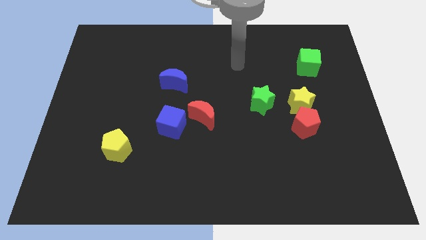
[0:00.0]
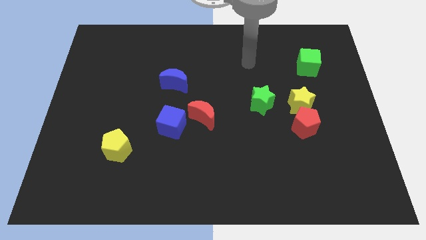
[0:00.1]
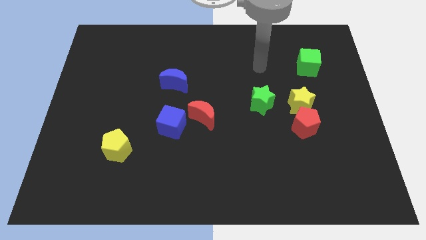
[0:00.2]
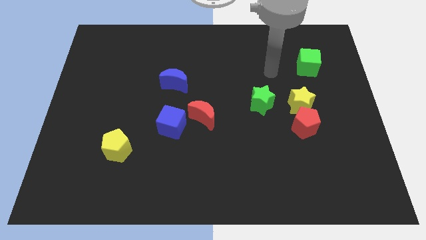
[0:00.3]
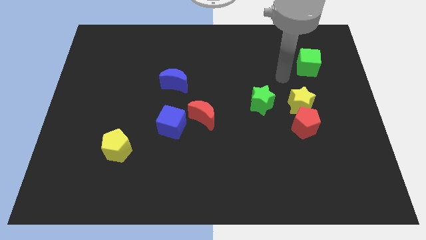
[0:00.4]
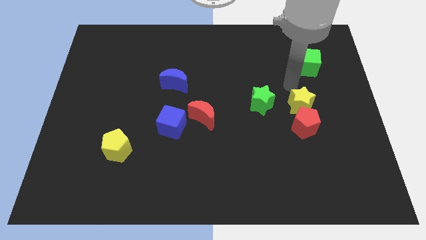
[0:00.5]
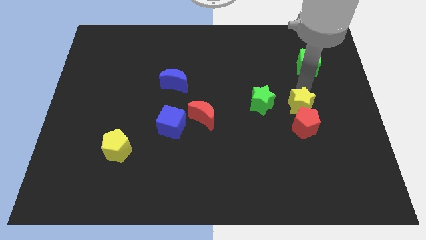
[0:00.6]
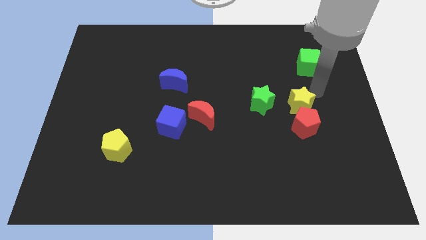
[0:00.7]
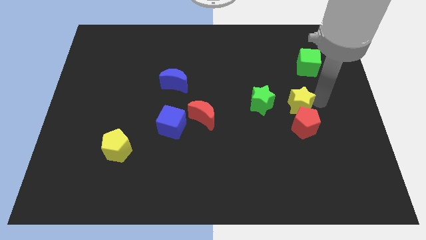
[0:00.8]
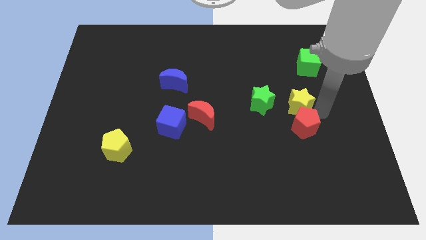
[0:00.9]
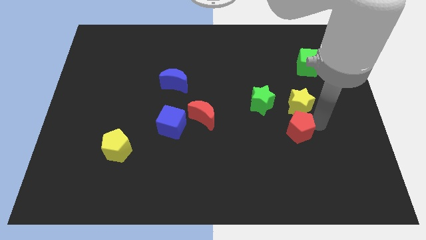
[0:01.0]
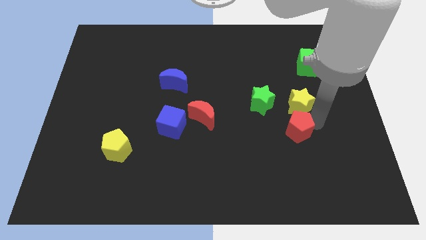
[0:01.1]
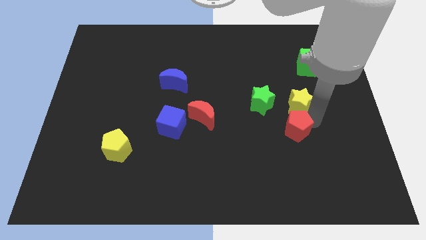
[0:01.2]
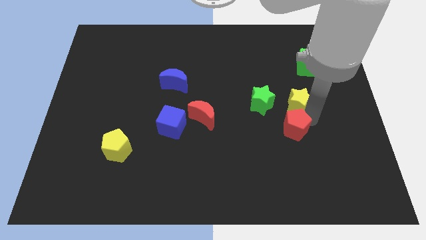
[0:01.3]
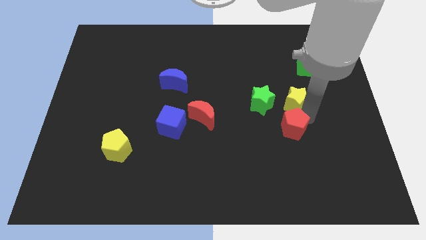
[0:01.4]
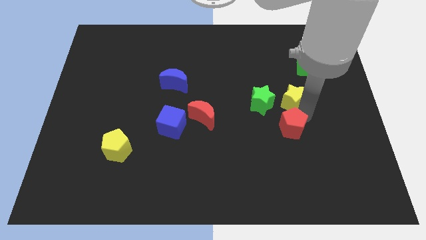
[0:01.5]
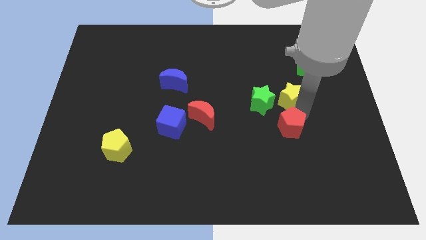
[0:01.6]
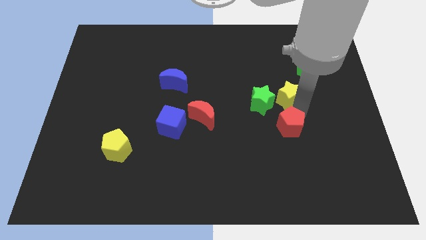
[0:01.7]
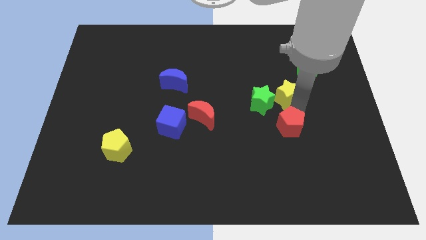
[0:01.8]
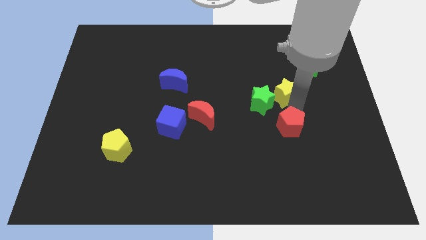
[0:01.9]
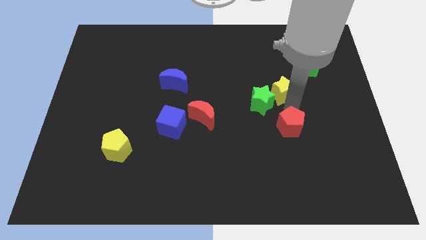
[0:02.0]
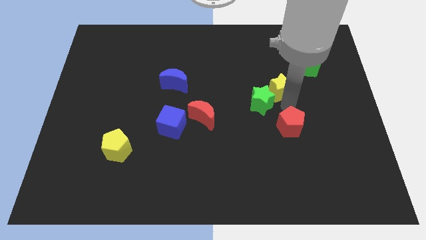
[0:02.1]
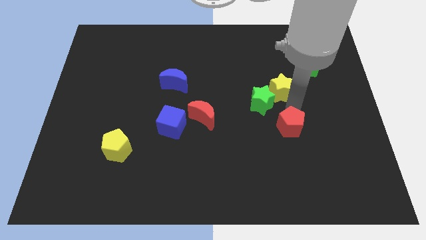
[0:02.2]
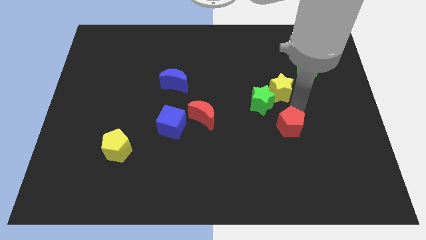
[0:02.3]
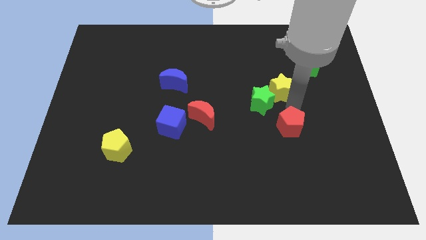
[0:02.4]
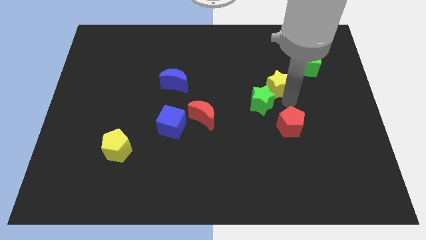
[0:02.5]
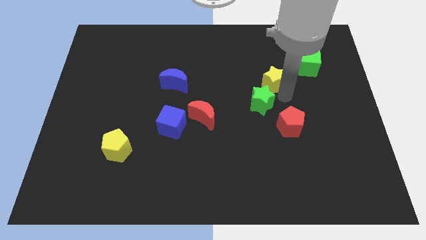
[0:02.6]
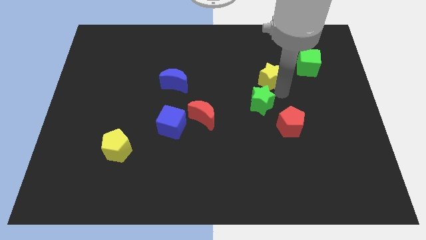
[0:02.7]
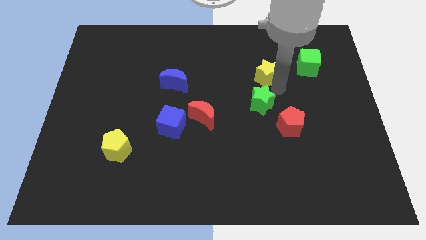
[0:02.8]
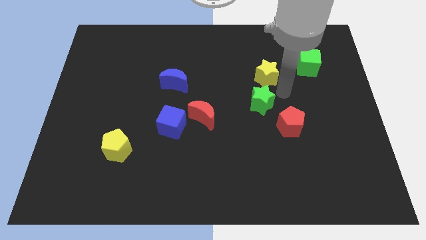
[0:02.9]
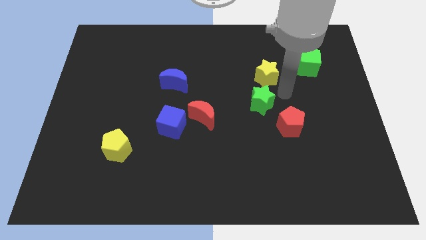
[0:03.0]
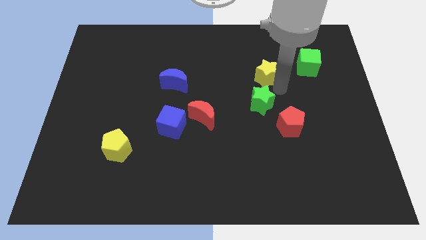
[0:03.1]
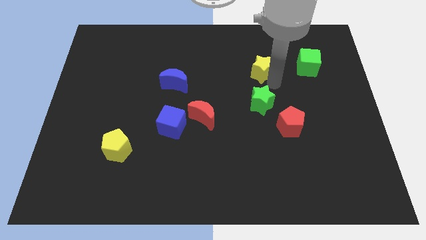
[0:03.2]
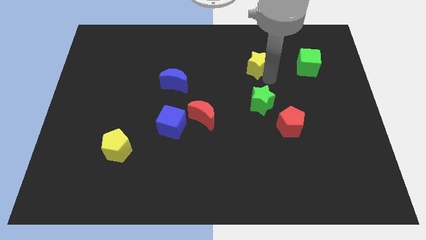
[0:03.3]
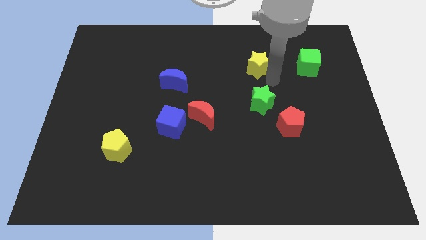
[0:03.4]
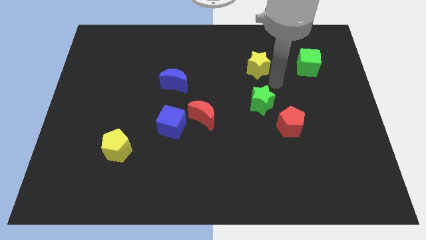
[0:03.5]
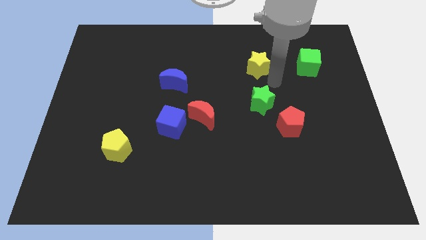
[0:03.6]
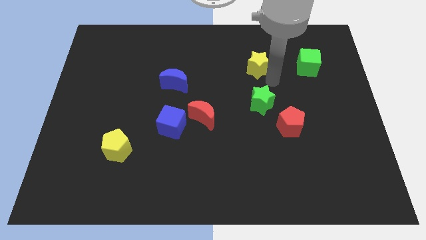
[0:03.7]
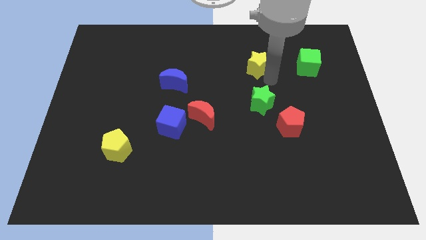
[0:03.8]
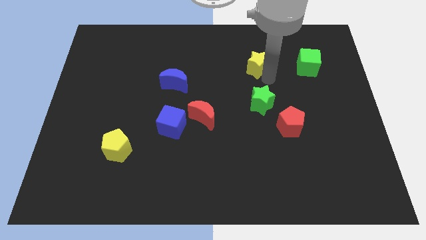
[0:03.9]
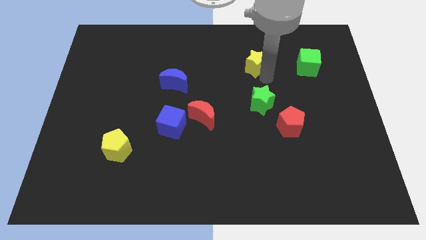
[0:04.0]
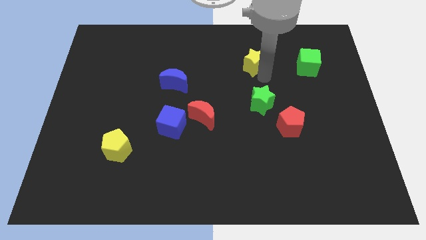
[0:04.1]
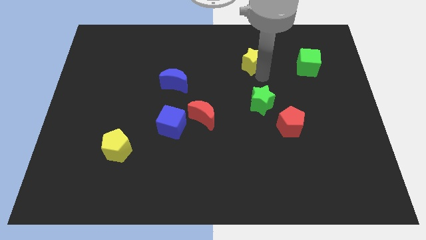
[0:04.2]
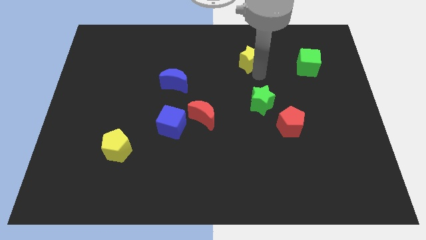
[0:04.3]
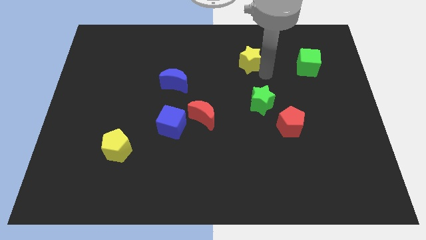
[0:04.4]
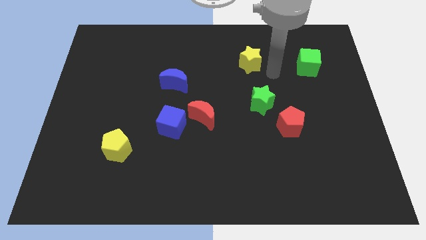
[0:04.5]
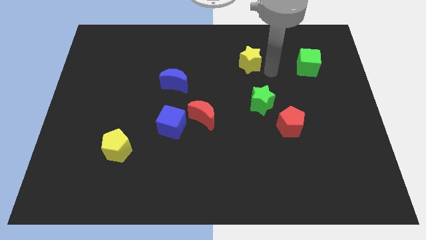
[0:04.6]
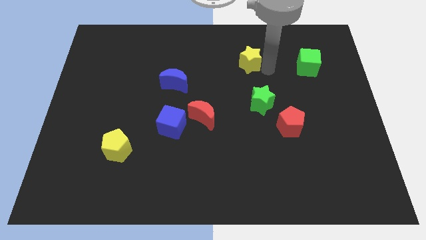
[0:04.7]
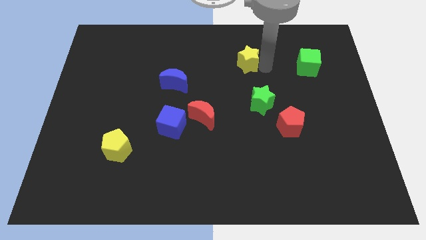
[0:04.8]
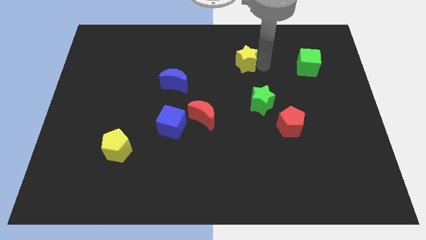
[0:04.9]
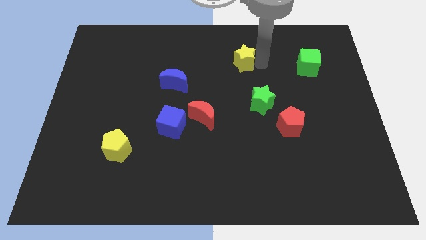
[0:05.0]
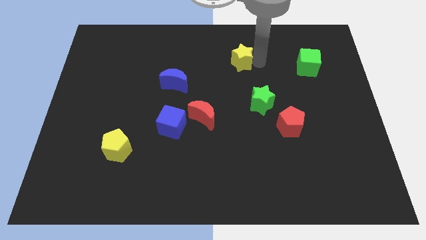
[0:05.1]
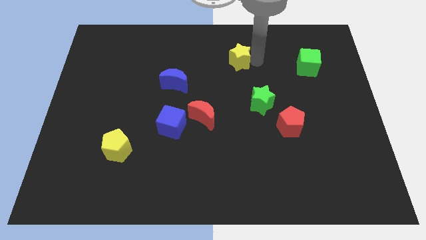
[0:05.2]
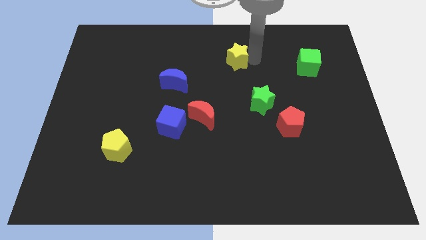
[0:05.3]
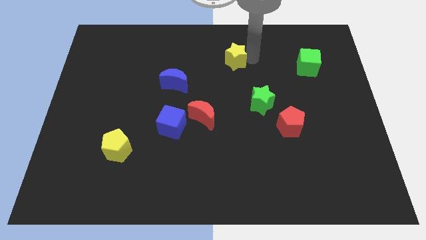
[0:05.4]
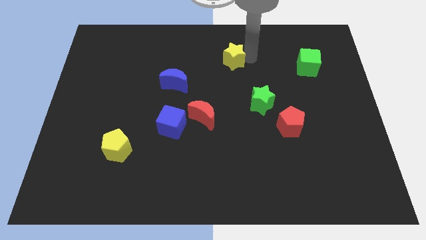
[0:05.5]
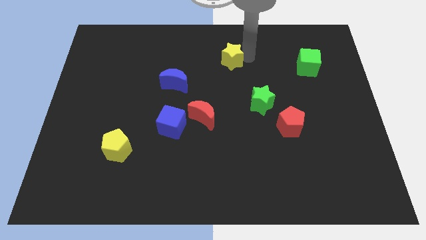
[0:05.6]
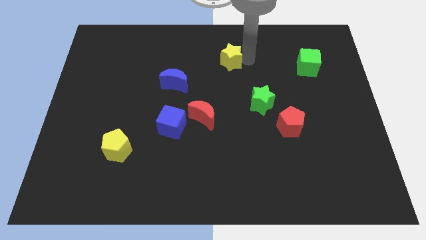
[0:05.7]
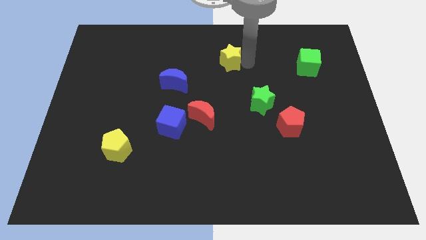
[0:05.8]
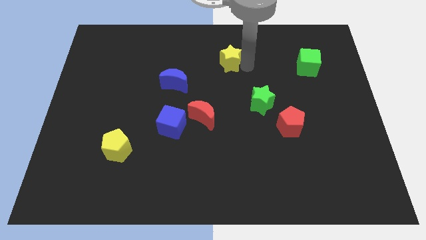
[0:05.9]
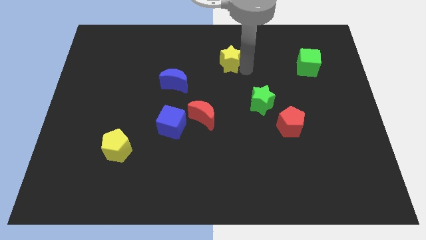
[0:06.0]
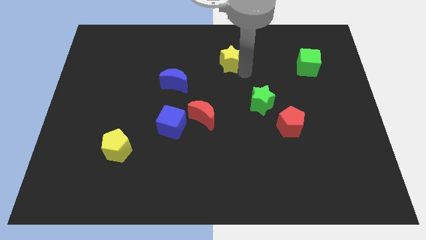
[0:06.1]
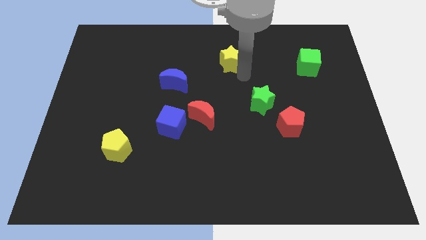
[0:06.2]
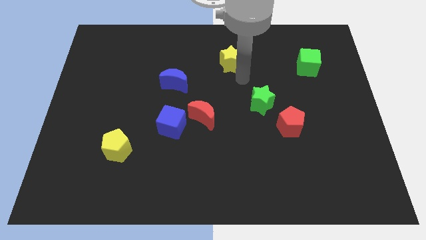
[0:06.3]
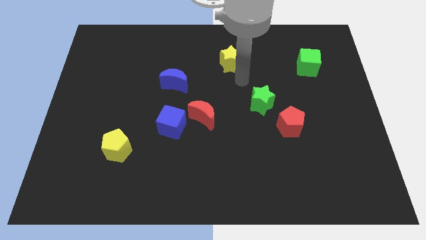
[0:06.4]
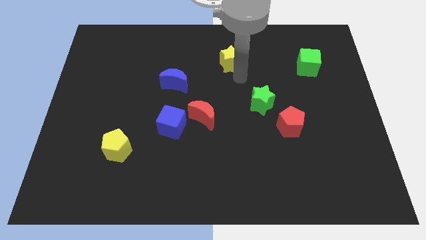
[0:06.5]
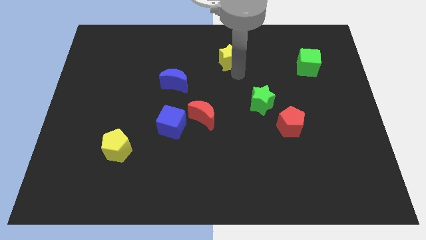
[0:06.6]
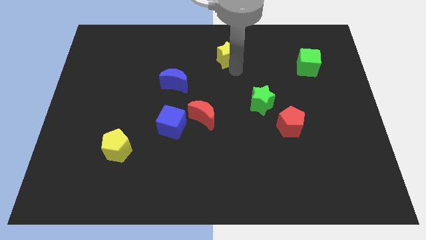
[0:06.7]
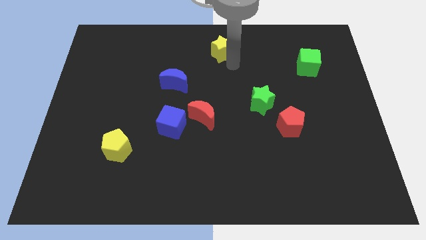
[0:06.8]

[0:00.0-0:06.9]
put the yellow star to the top side
